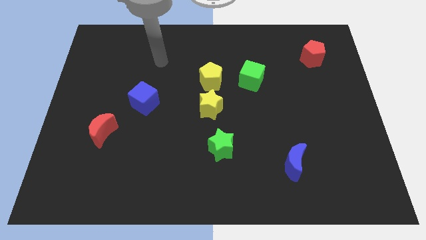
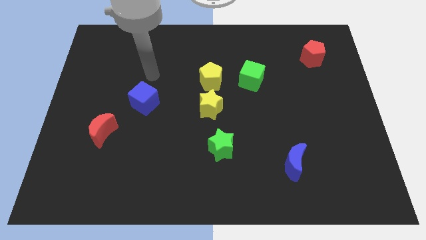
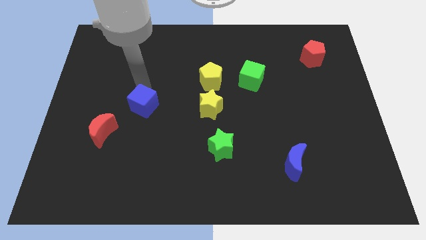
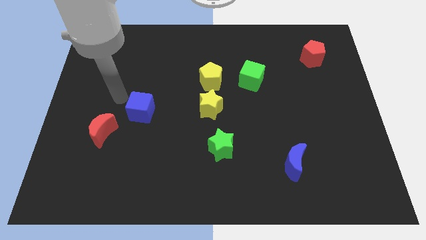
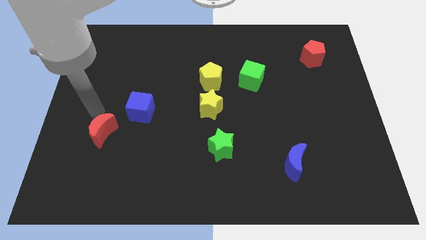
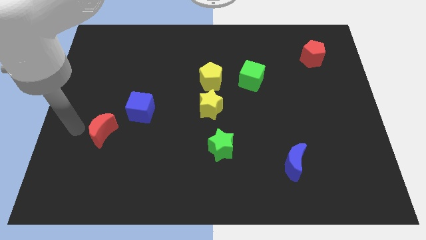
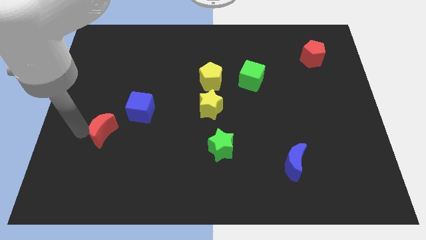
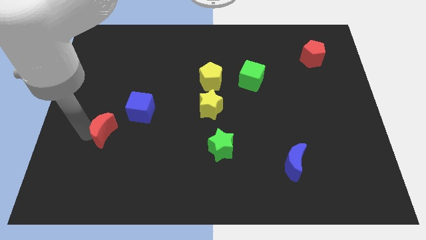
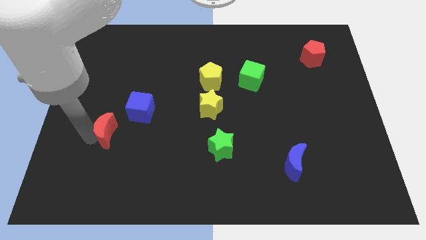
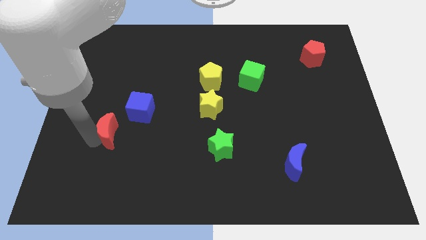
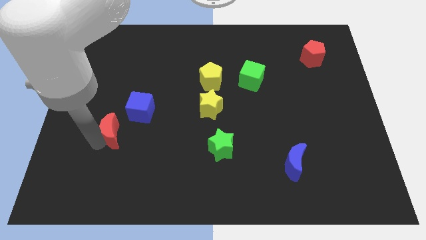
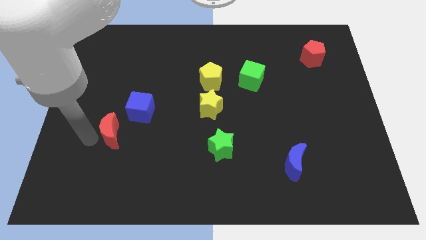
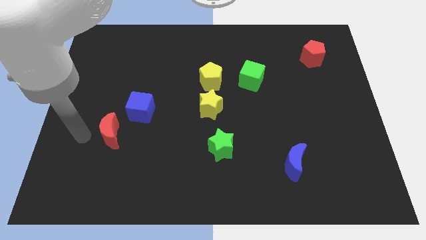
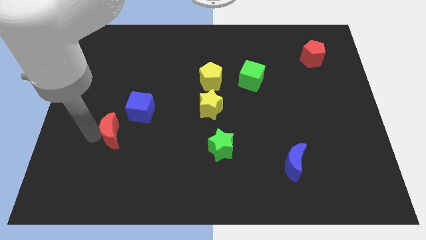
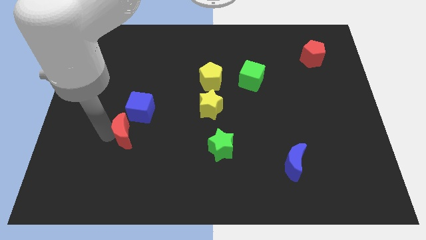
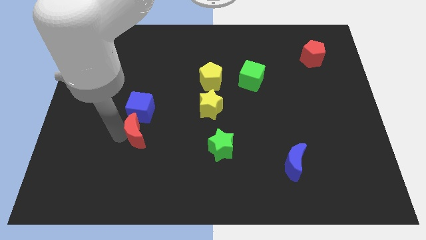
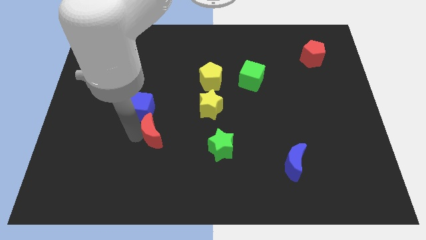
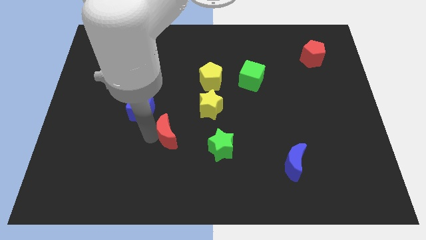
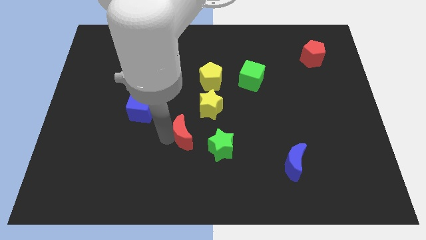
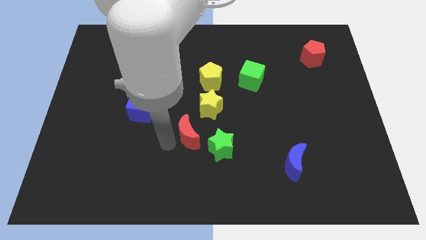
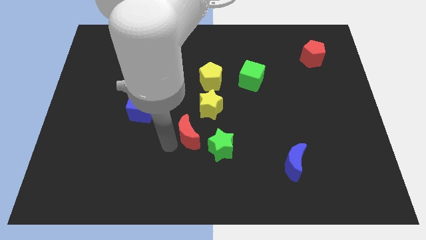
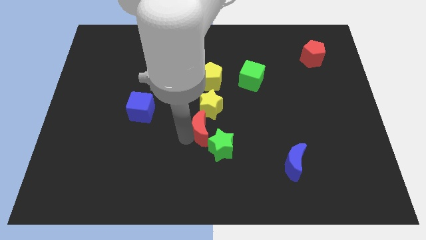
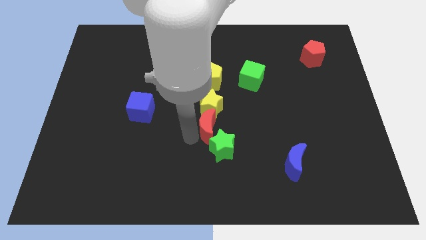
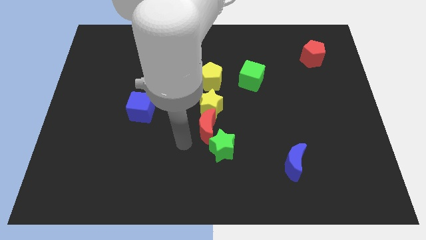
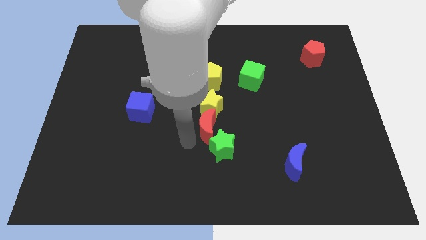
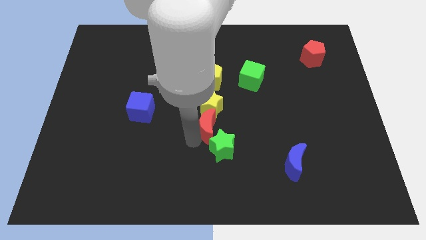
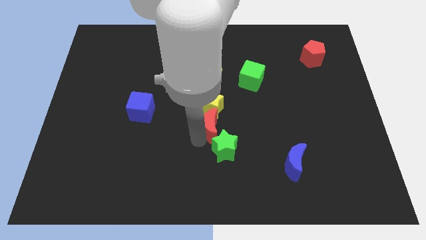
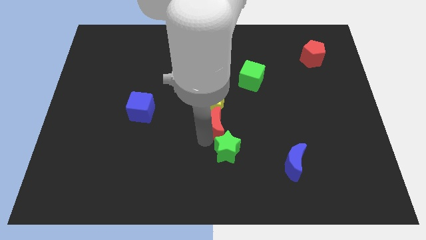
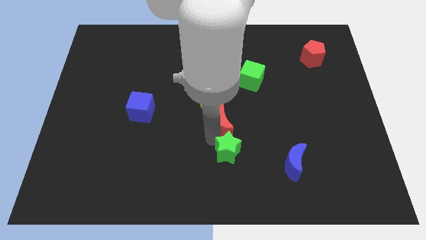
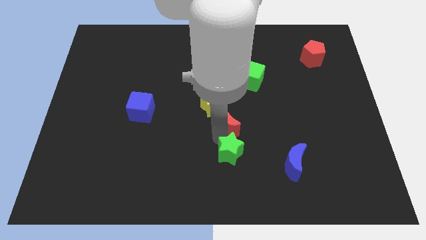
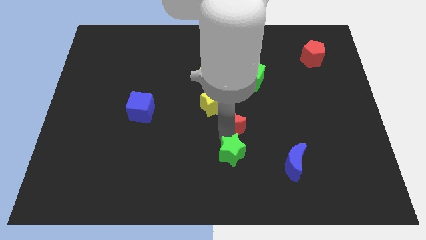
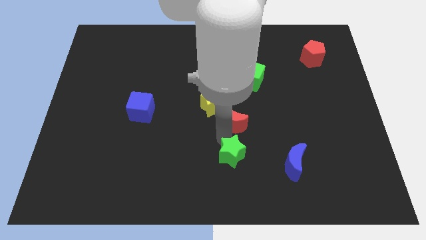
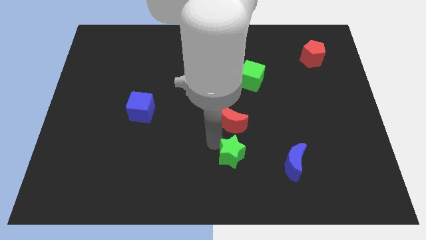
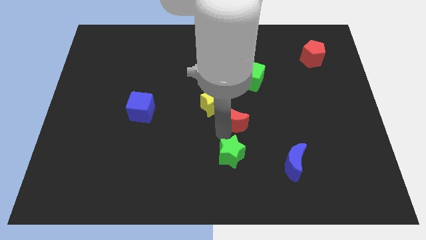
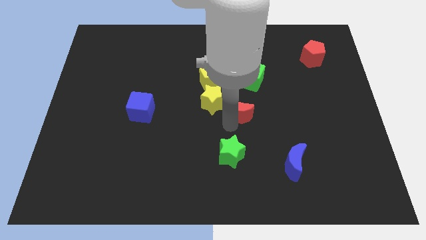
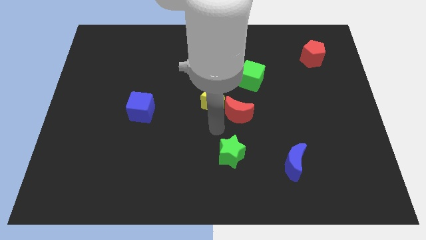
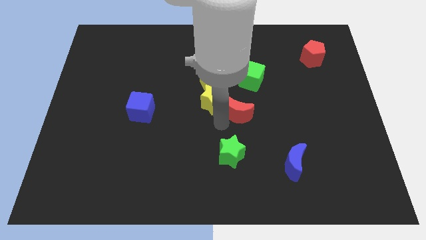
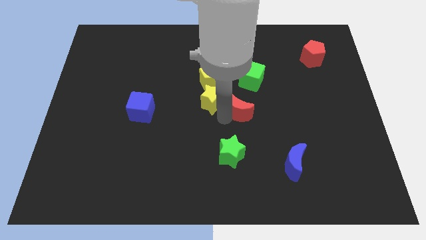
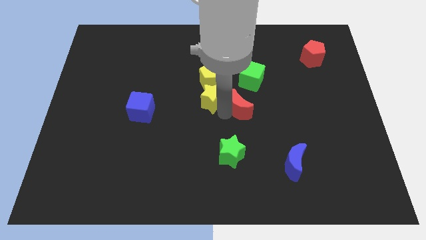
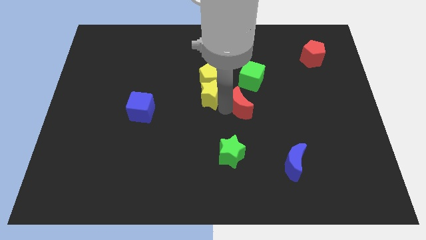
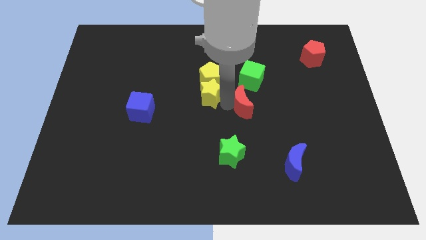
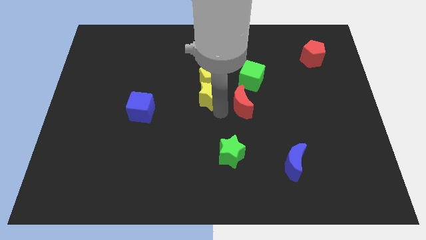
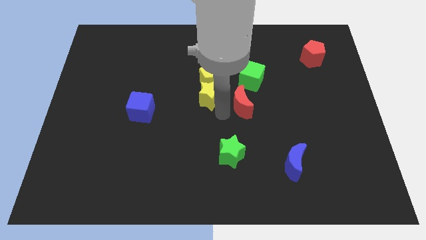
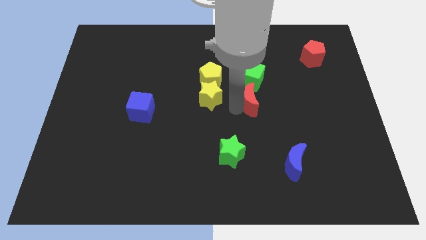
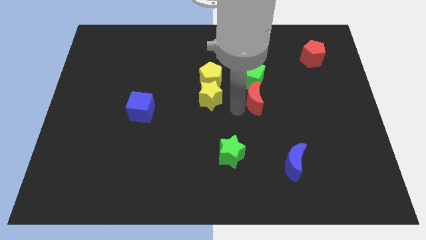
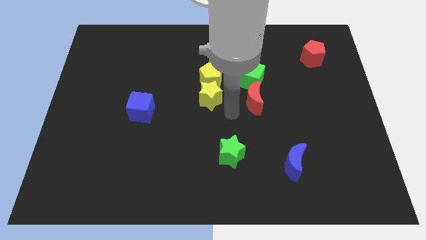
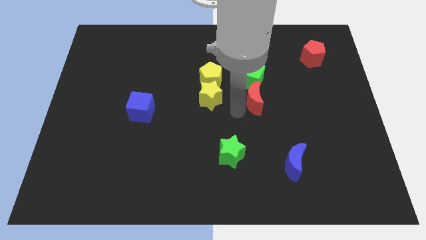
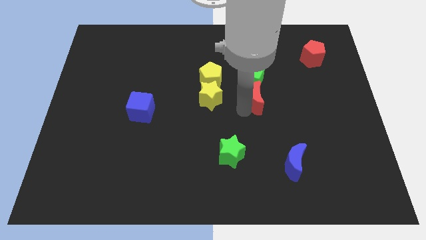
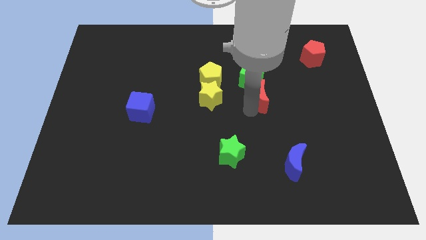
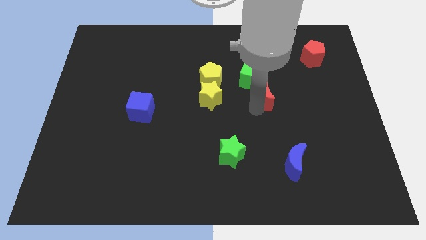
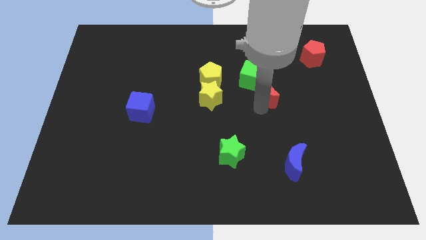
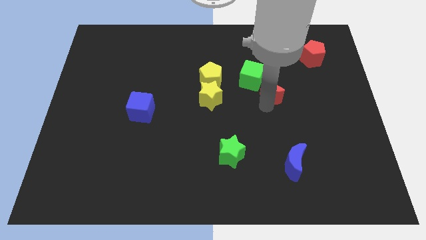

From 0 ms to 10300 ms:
slide the red moon to the right side of the green cube

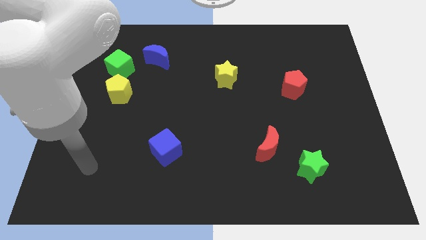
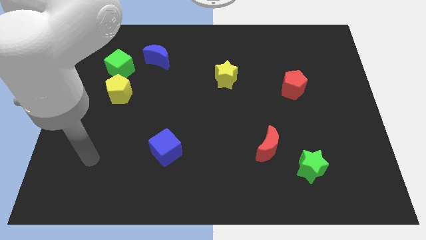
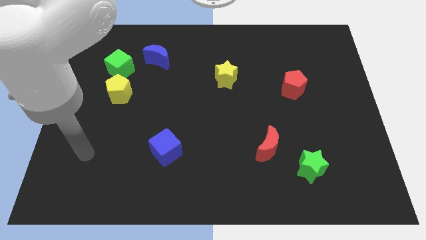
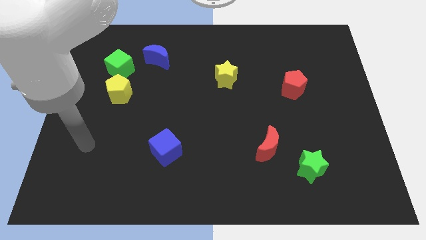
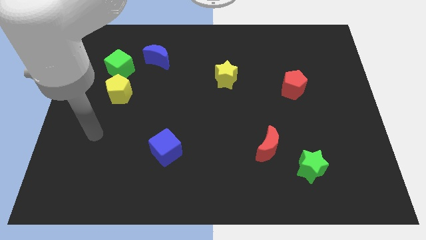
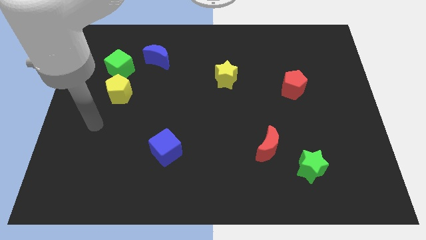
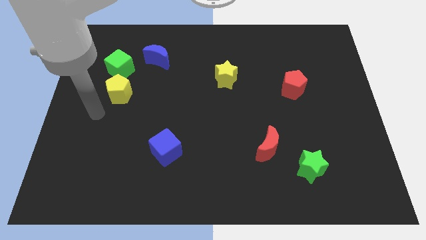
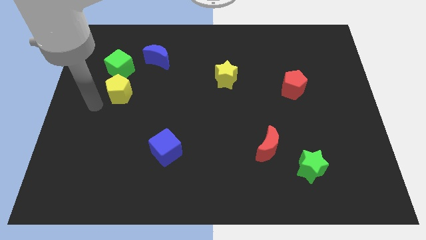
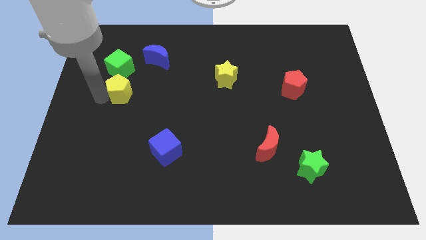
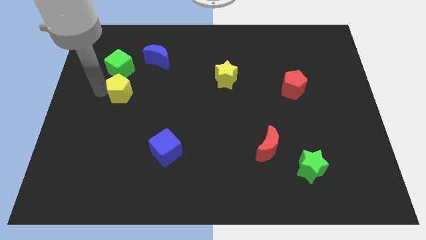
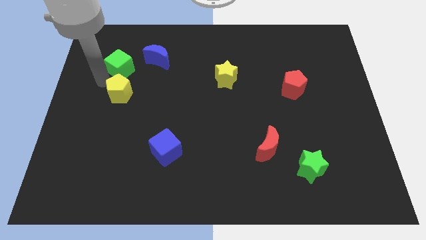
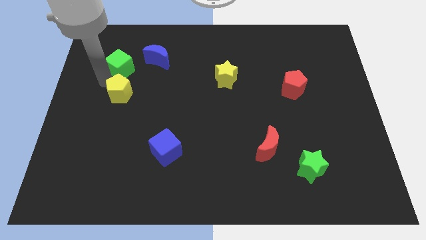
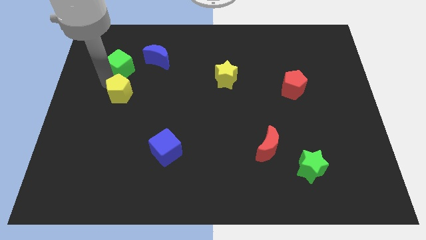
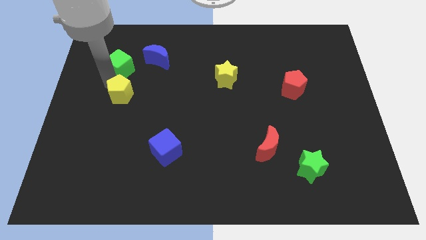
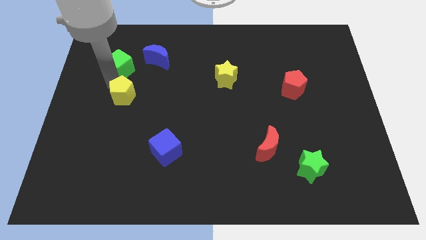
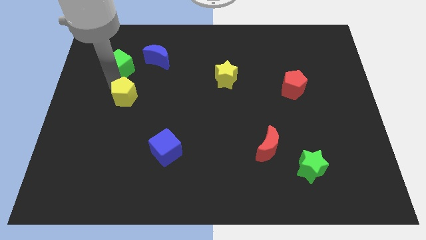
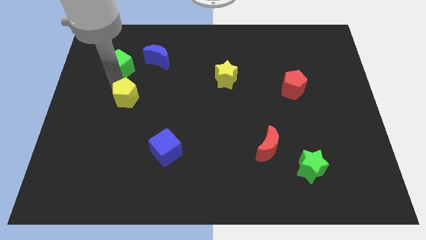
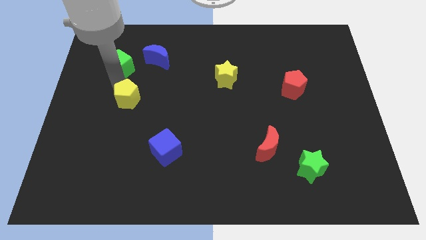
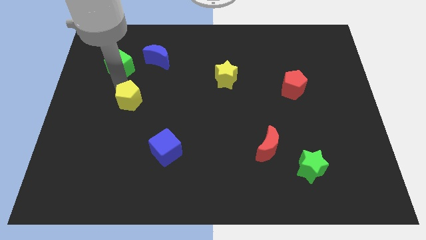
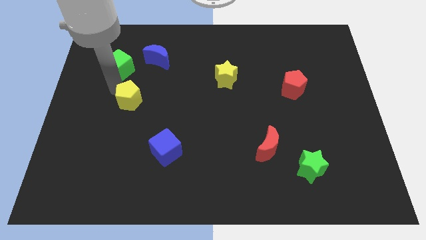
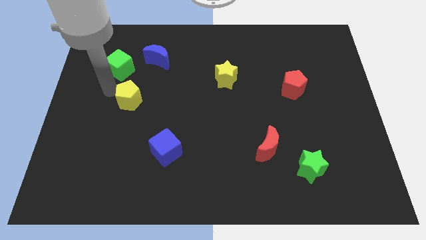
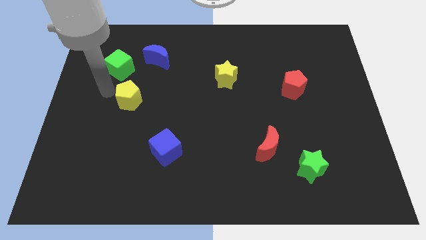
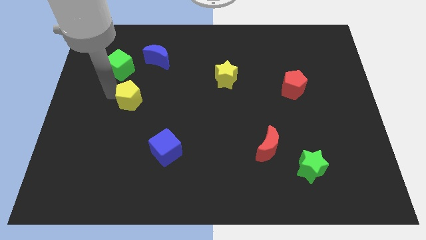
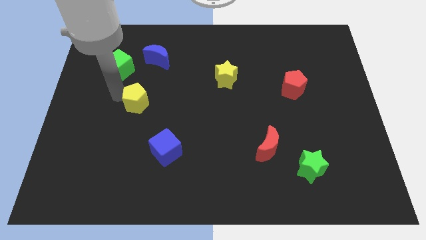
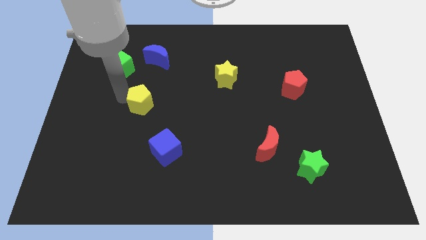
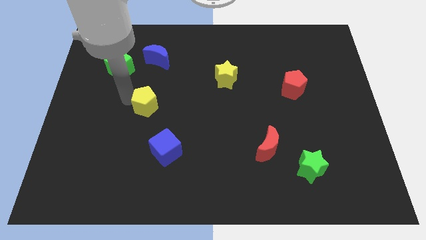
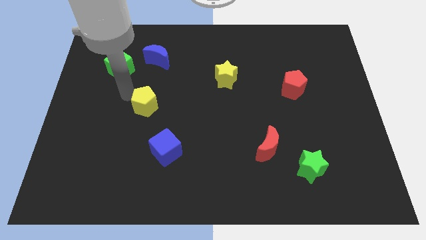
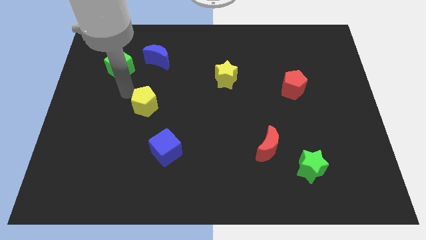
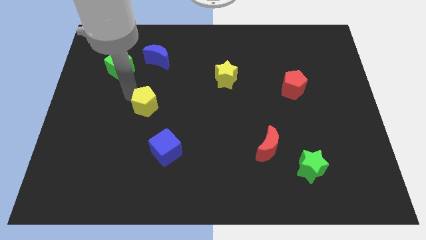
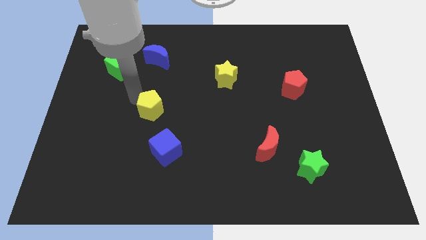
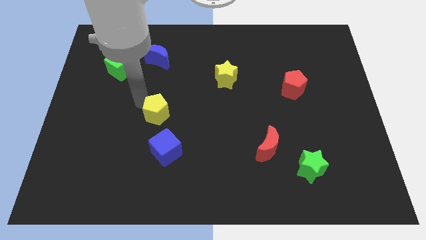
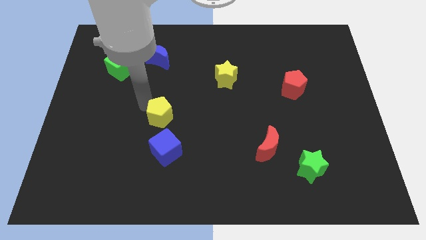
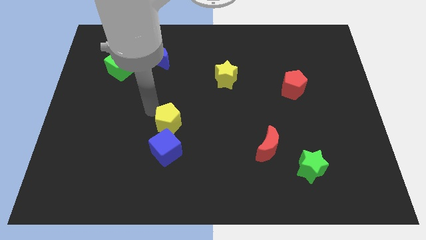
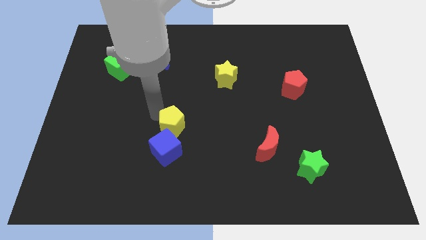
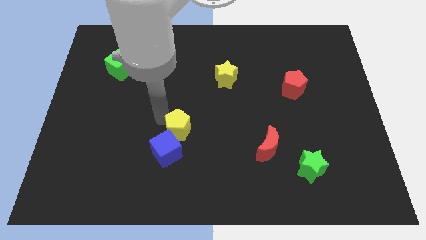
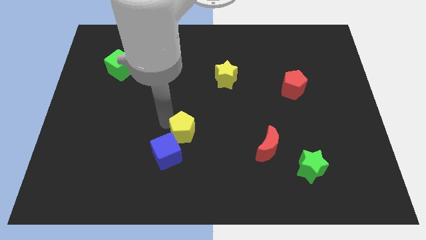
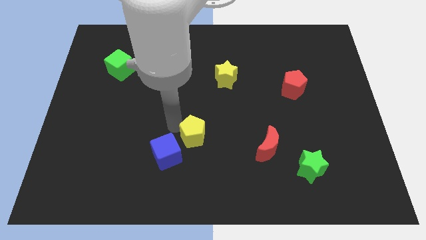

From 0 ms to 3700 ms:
push the yellow pentagon just right of the blue cube
